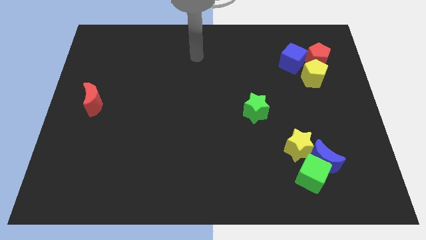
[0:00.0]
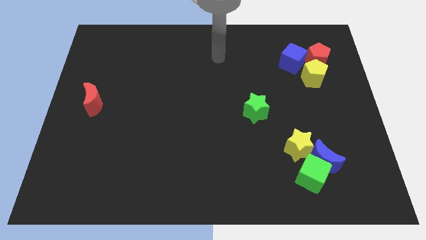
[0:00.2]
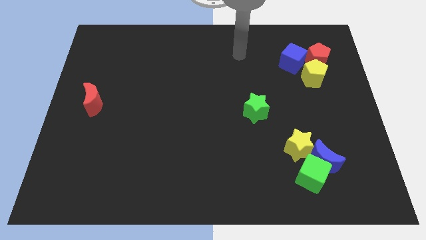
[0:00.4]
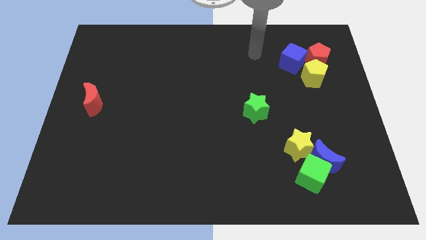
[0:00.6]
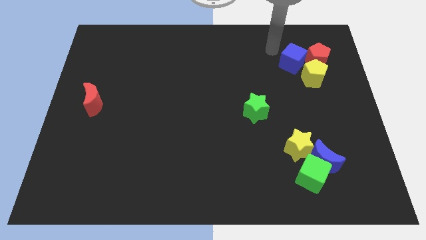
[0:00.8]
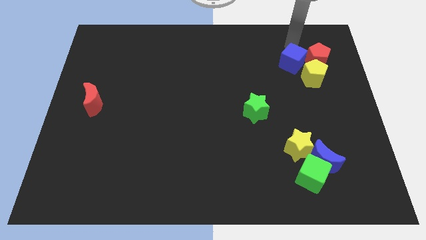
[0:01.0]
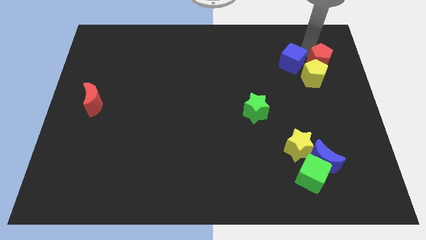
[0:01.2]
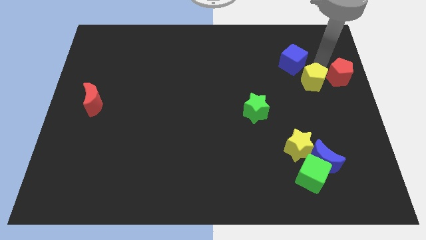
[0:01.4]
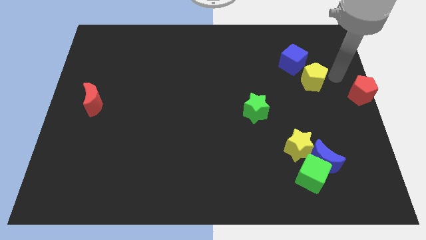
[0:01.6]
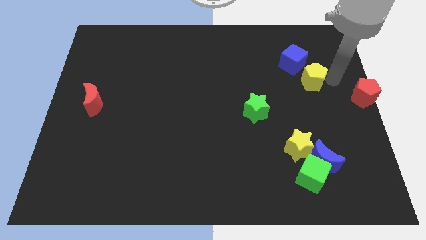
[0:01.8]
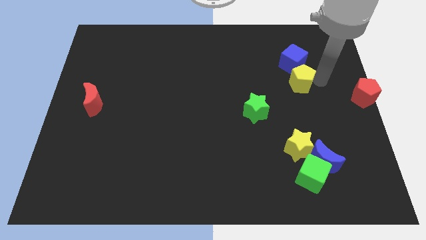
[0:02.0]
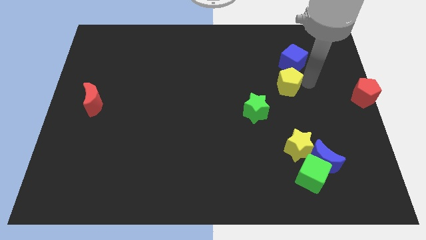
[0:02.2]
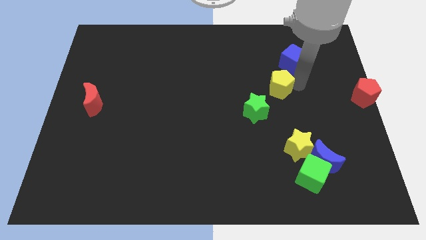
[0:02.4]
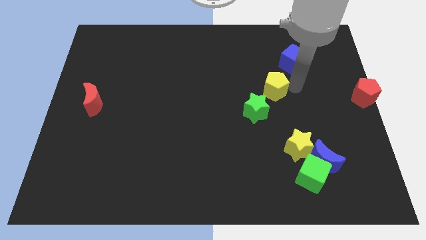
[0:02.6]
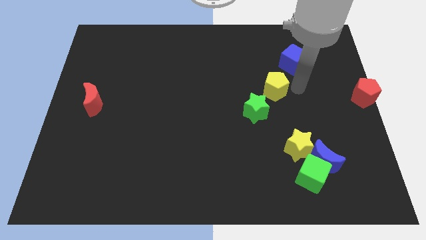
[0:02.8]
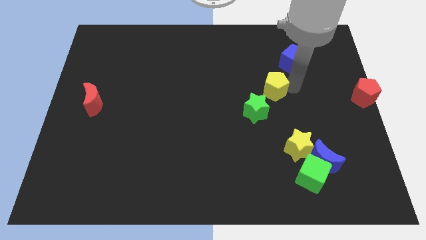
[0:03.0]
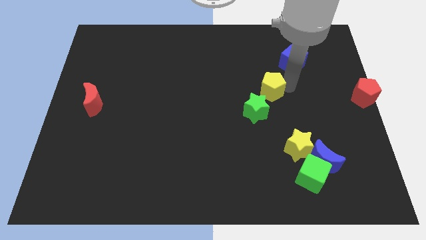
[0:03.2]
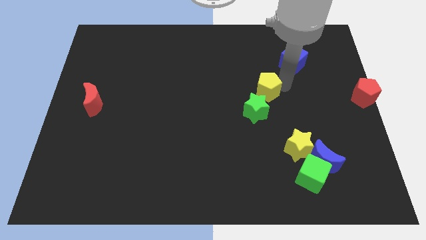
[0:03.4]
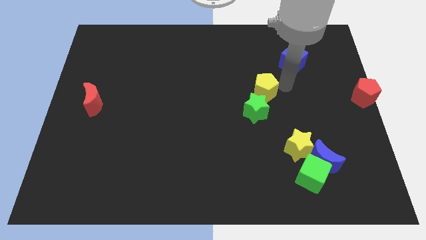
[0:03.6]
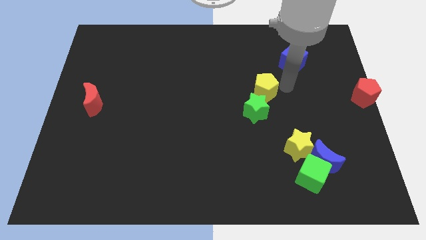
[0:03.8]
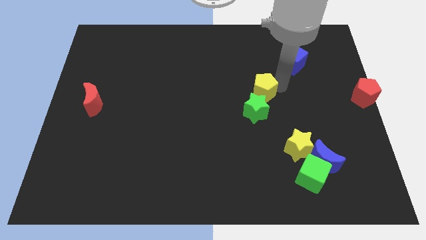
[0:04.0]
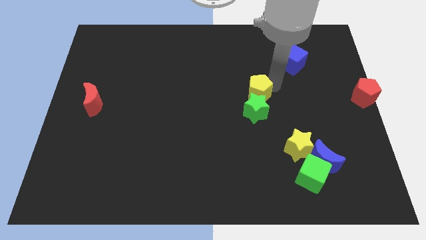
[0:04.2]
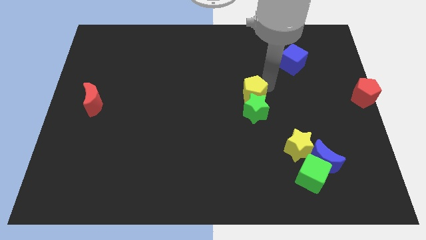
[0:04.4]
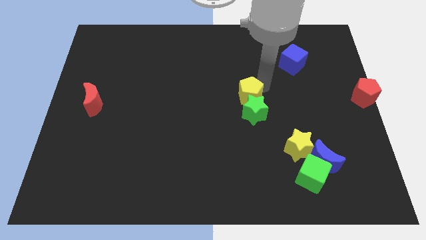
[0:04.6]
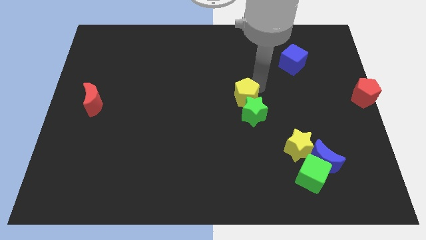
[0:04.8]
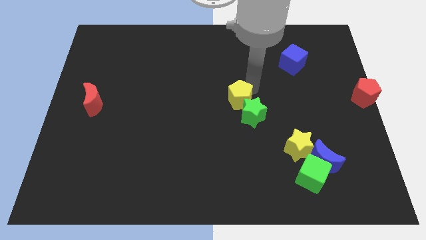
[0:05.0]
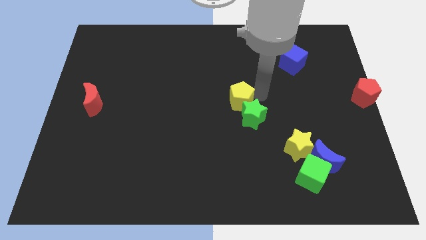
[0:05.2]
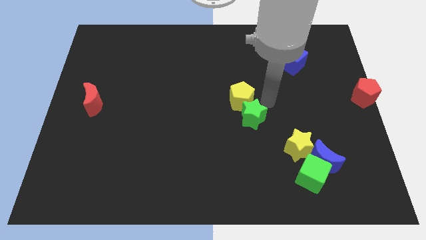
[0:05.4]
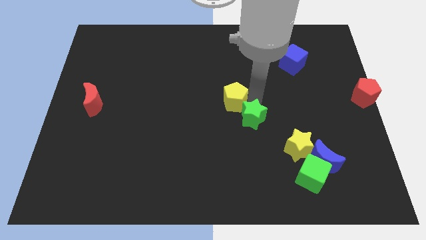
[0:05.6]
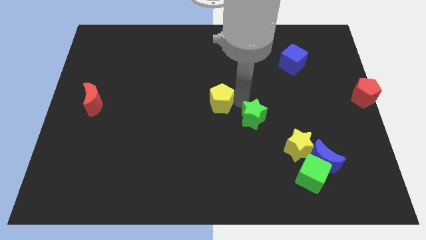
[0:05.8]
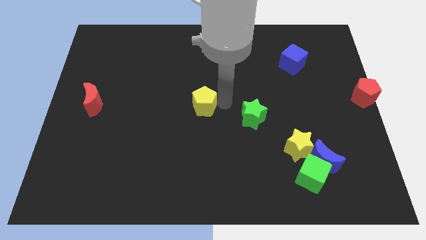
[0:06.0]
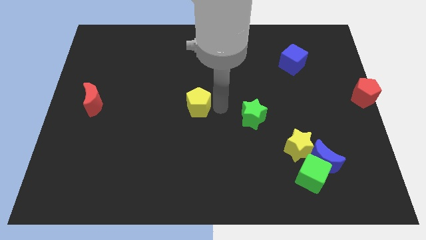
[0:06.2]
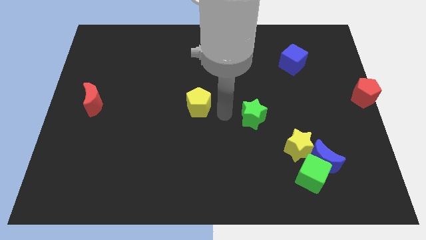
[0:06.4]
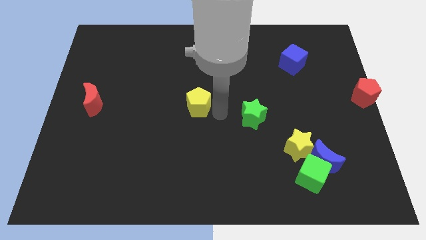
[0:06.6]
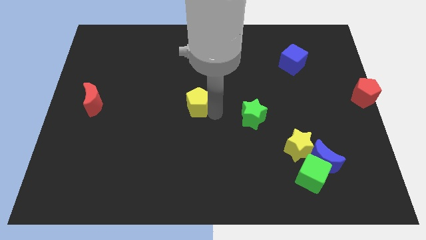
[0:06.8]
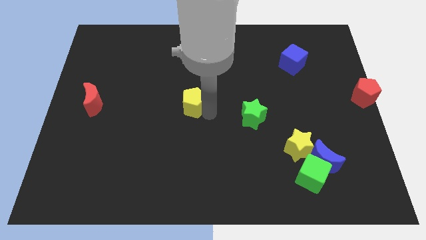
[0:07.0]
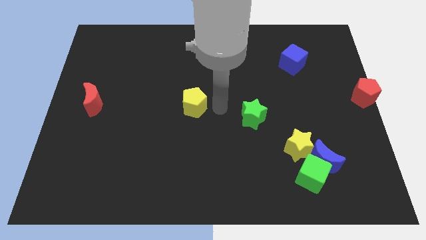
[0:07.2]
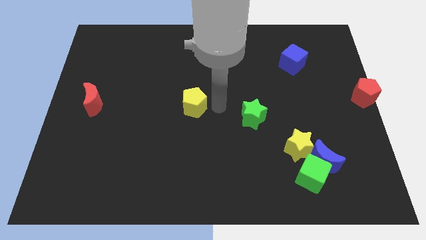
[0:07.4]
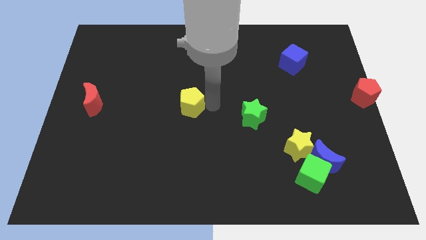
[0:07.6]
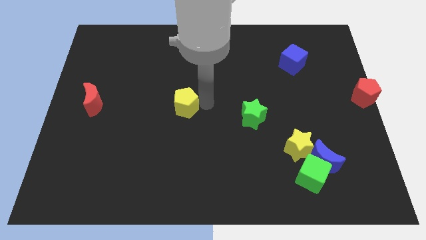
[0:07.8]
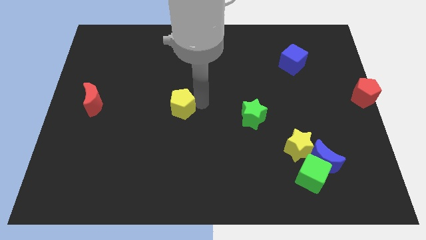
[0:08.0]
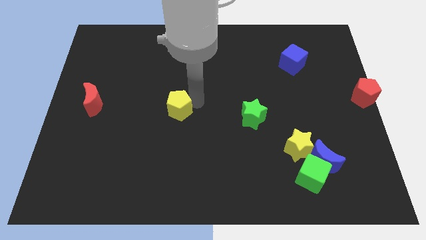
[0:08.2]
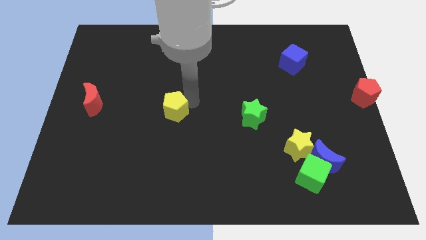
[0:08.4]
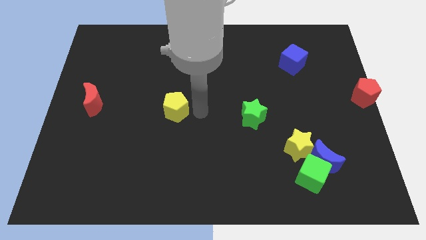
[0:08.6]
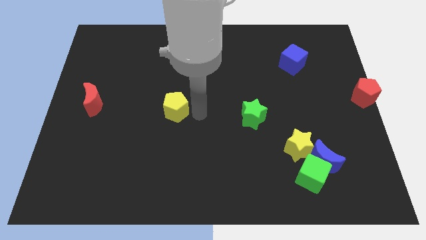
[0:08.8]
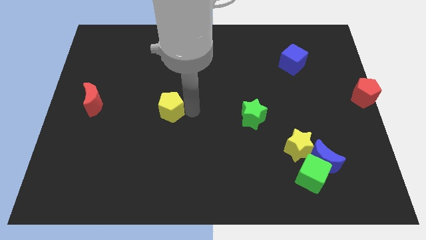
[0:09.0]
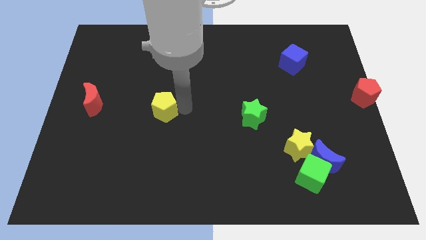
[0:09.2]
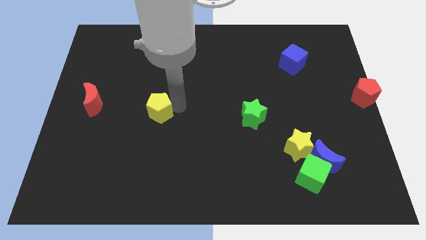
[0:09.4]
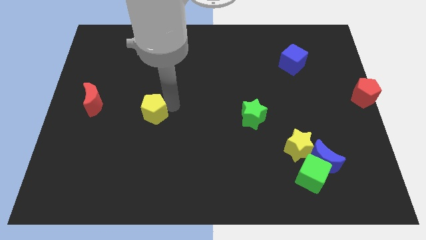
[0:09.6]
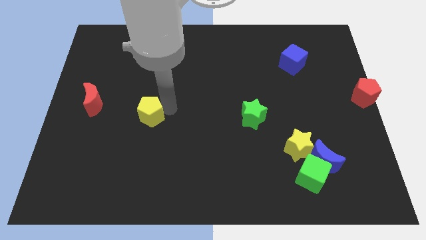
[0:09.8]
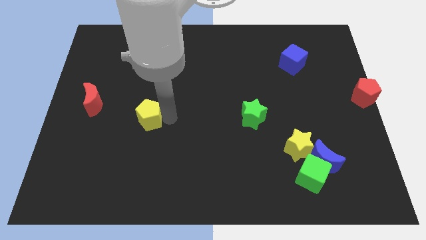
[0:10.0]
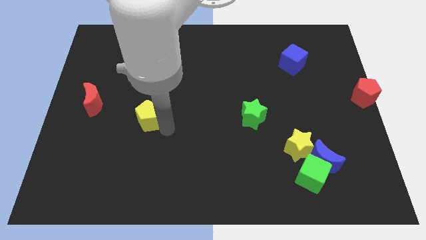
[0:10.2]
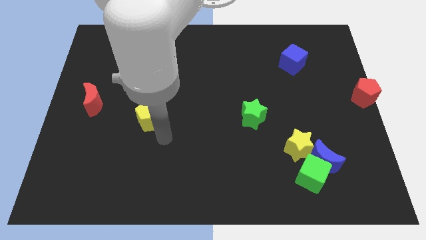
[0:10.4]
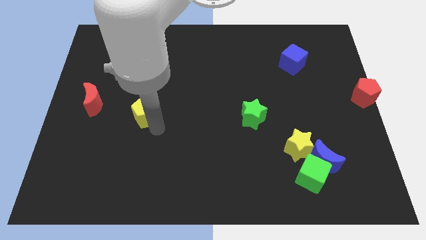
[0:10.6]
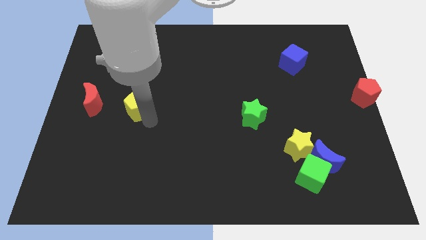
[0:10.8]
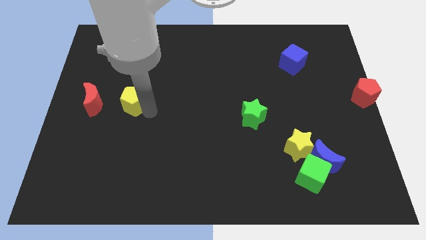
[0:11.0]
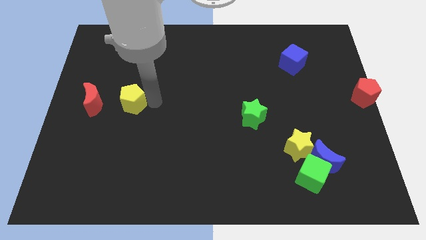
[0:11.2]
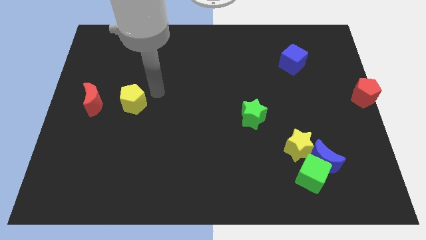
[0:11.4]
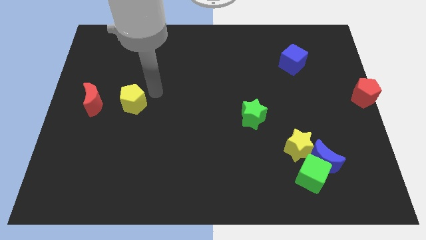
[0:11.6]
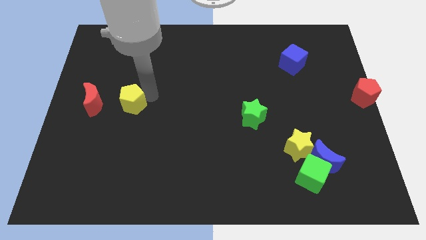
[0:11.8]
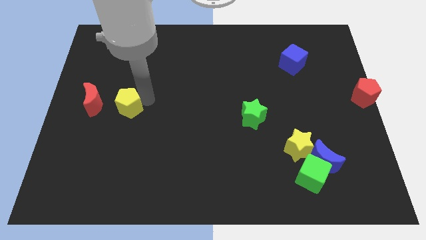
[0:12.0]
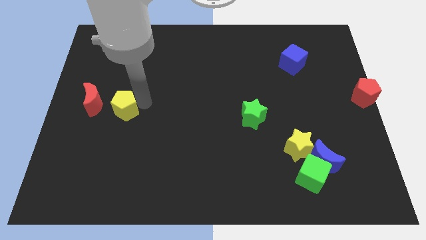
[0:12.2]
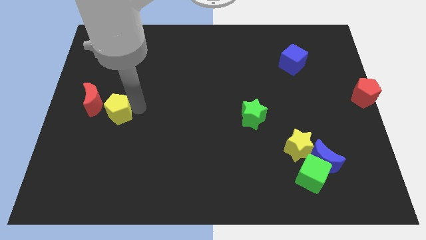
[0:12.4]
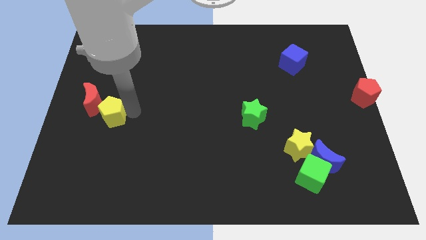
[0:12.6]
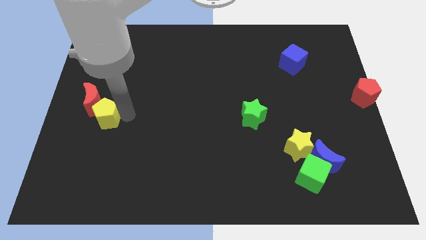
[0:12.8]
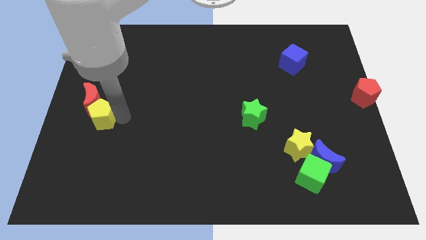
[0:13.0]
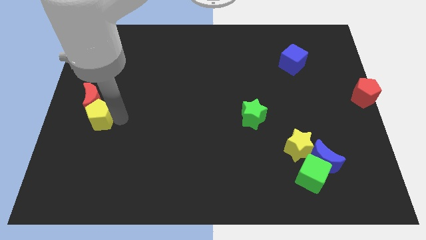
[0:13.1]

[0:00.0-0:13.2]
push the yellow pentagon to the left side
